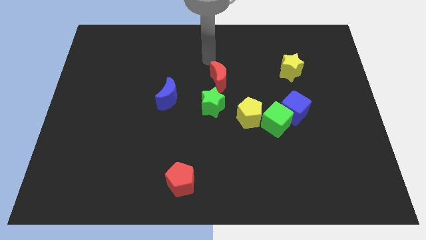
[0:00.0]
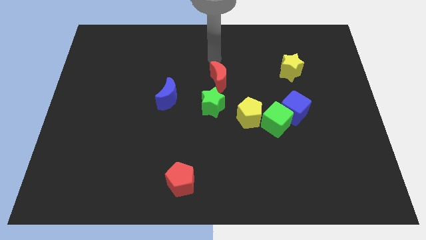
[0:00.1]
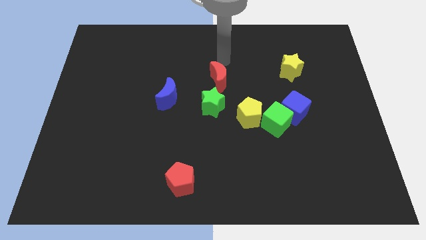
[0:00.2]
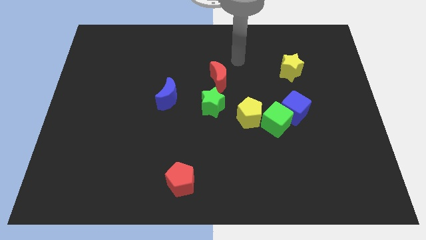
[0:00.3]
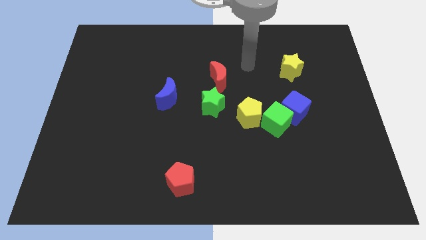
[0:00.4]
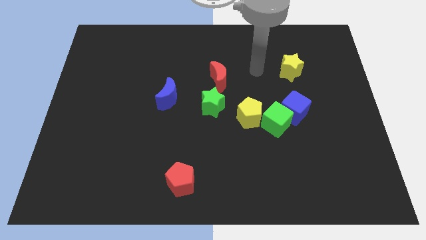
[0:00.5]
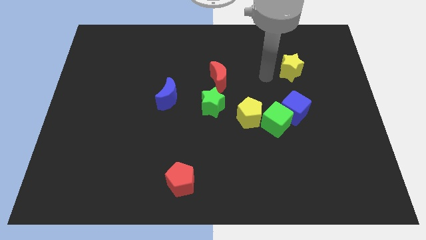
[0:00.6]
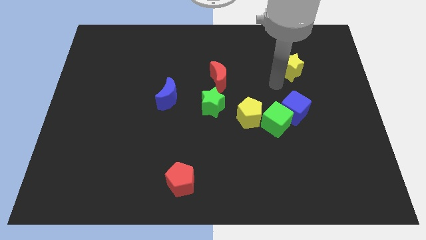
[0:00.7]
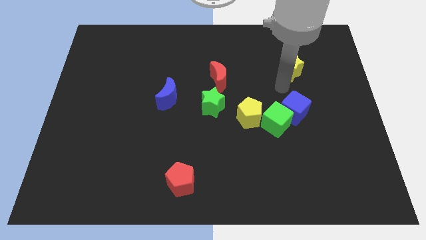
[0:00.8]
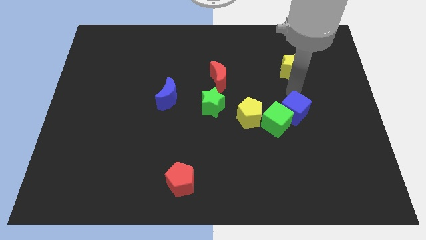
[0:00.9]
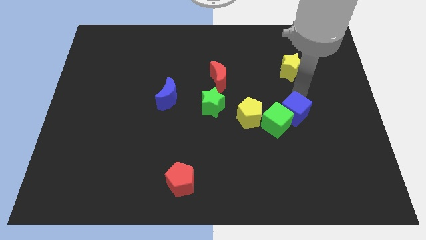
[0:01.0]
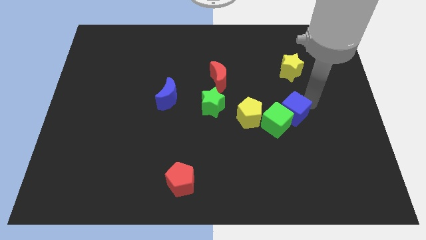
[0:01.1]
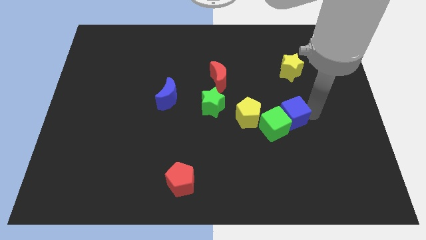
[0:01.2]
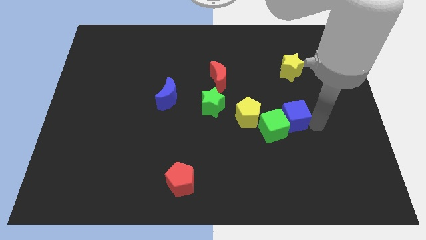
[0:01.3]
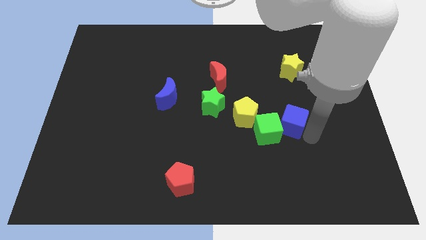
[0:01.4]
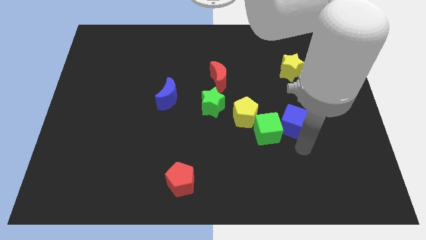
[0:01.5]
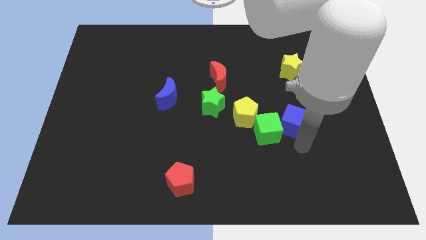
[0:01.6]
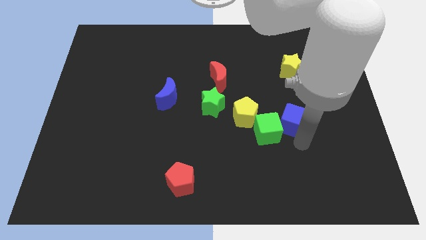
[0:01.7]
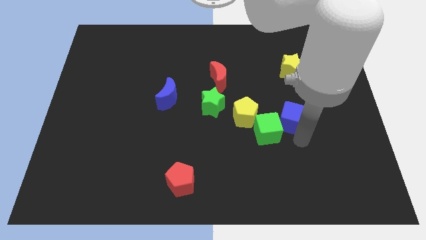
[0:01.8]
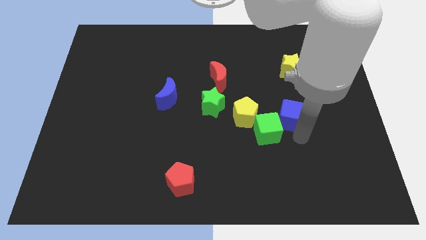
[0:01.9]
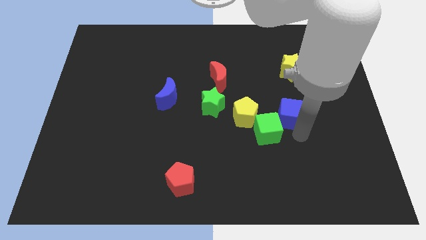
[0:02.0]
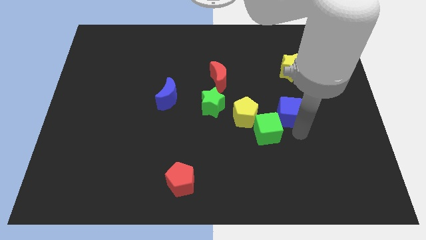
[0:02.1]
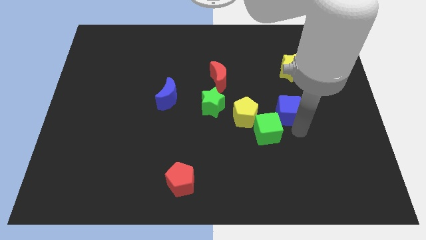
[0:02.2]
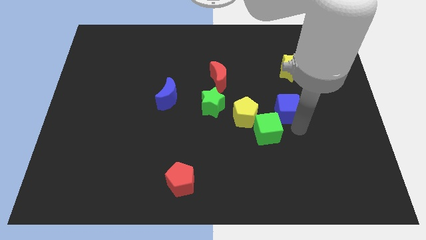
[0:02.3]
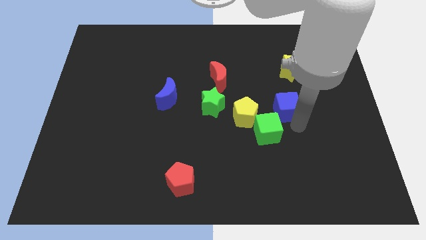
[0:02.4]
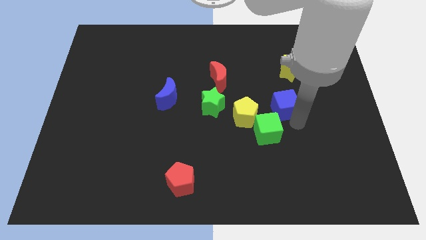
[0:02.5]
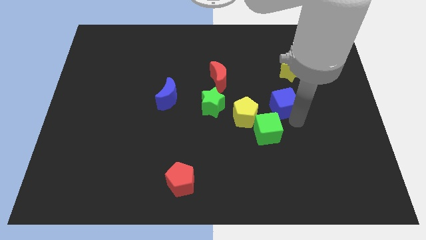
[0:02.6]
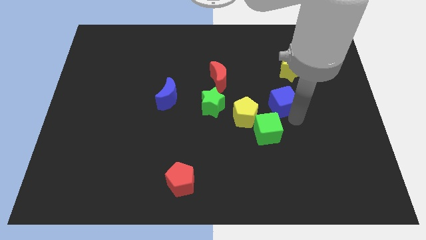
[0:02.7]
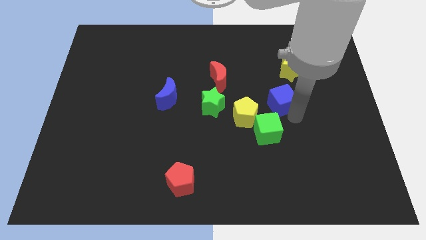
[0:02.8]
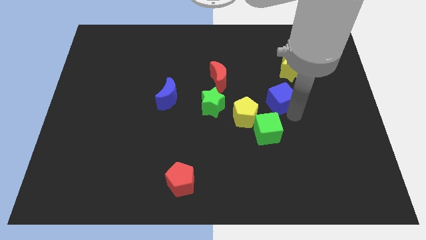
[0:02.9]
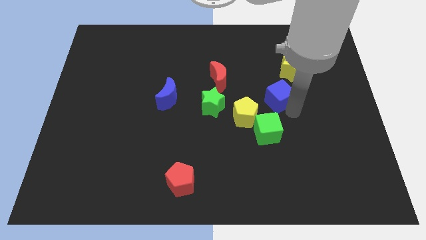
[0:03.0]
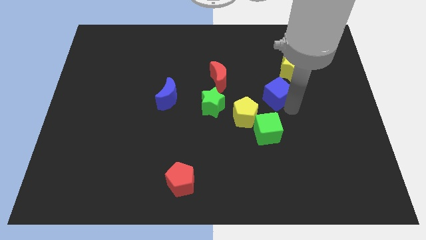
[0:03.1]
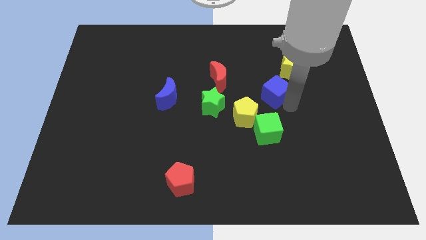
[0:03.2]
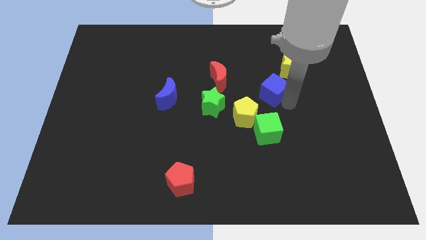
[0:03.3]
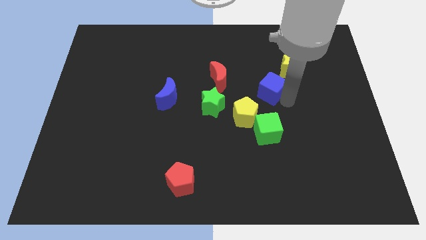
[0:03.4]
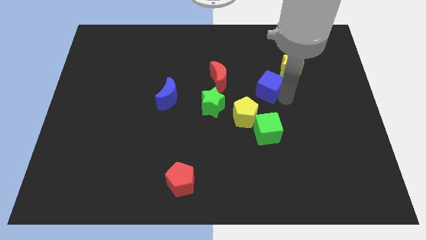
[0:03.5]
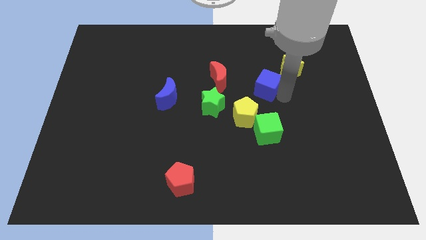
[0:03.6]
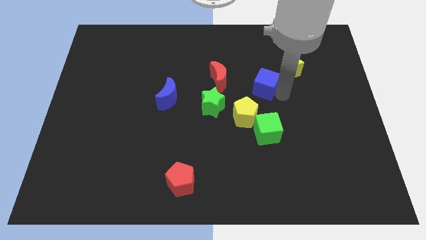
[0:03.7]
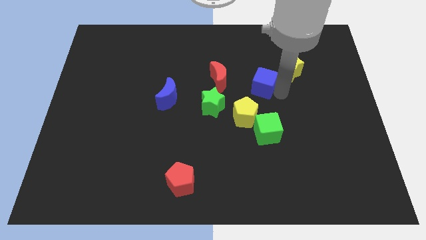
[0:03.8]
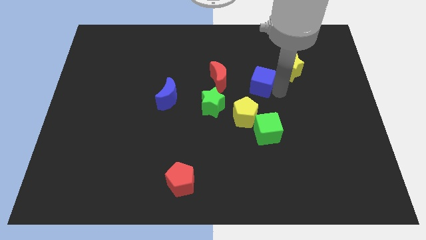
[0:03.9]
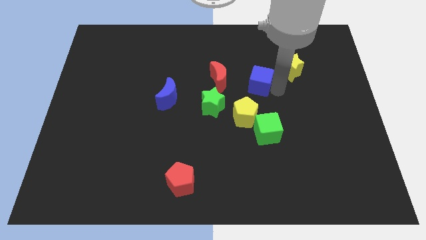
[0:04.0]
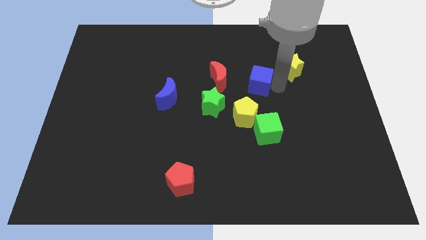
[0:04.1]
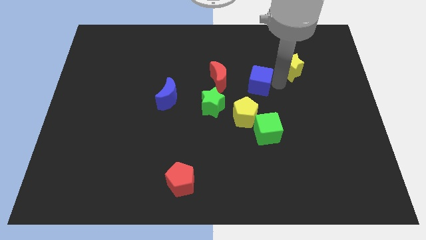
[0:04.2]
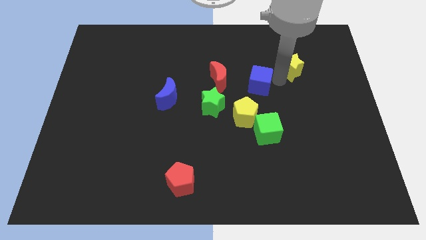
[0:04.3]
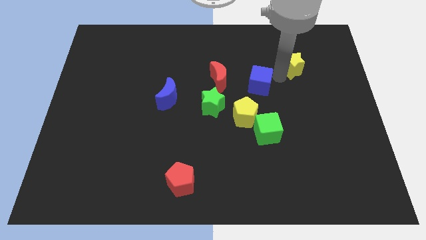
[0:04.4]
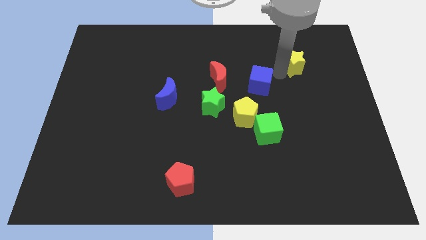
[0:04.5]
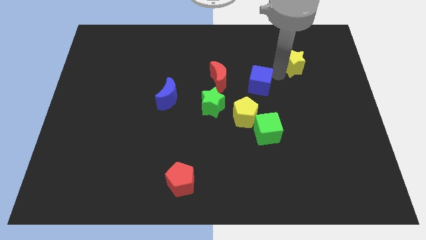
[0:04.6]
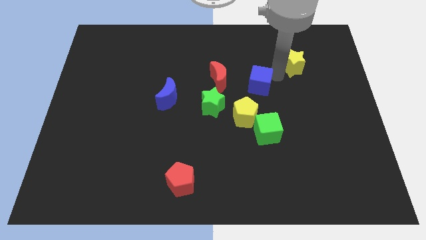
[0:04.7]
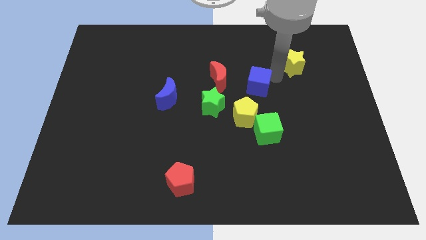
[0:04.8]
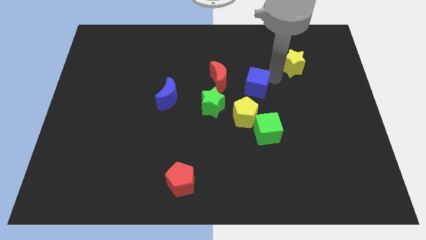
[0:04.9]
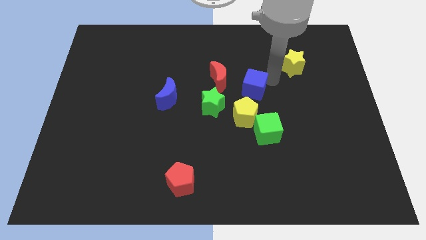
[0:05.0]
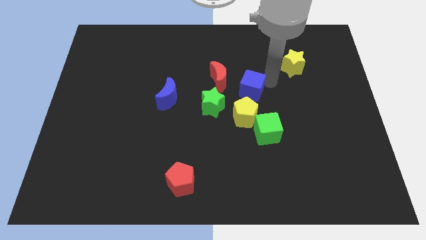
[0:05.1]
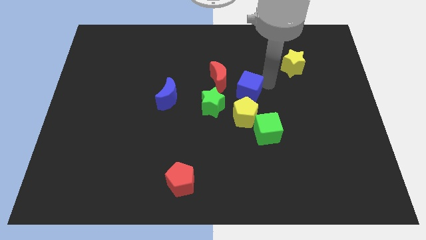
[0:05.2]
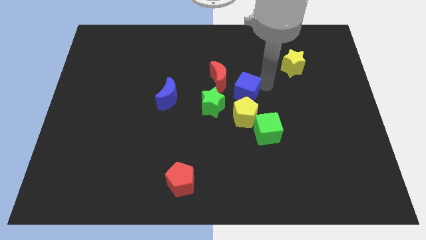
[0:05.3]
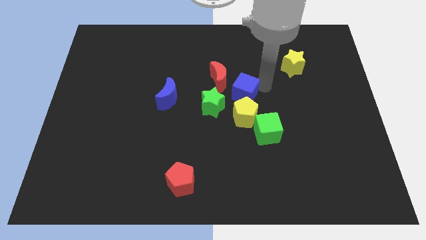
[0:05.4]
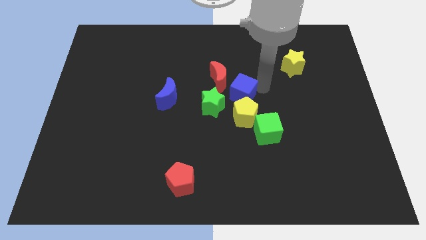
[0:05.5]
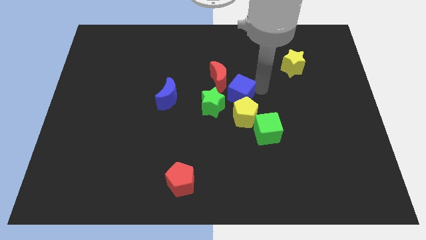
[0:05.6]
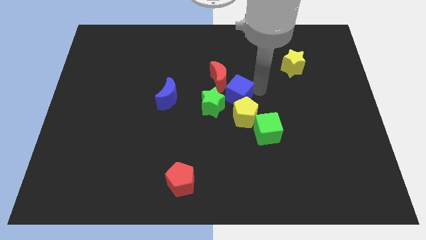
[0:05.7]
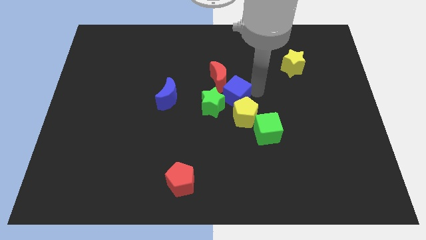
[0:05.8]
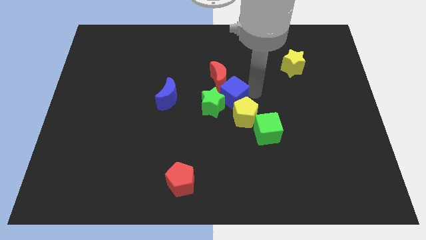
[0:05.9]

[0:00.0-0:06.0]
put the blue cube close to the green star

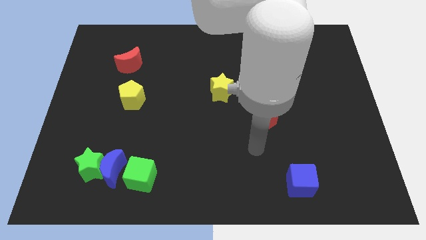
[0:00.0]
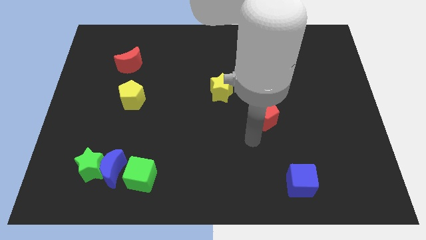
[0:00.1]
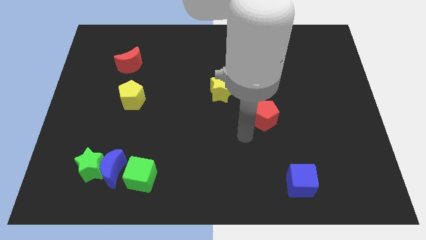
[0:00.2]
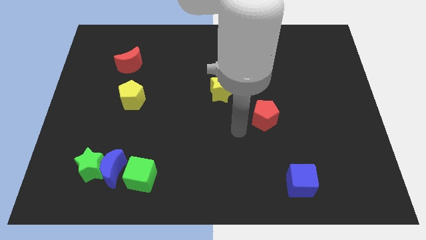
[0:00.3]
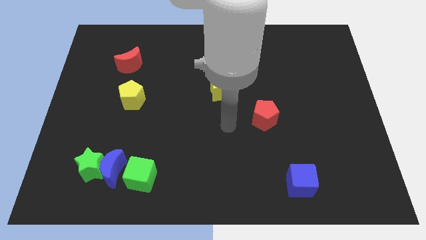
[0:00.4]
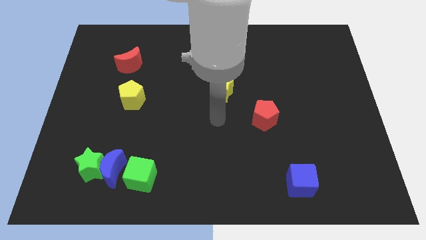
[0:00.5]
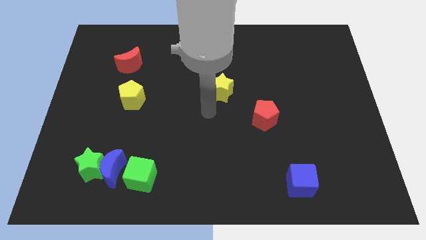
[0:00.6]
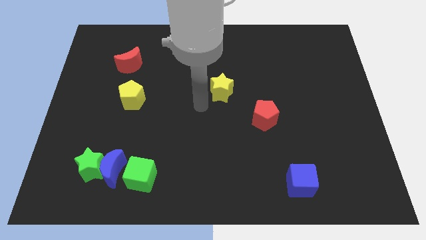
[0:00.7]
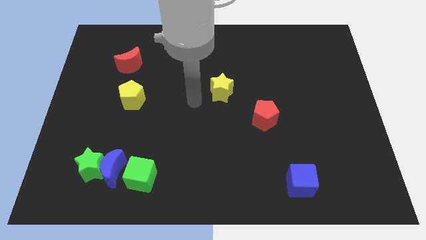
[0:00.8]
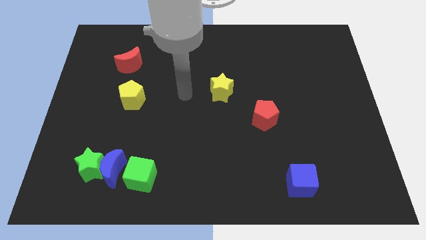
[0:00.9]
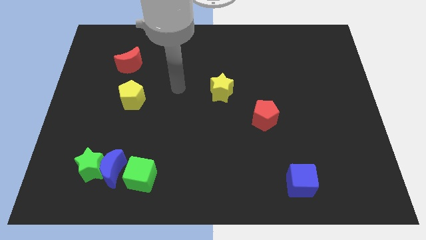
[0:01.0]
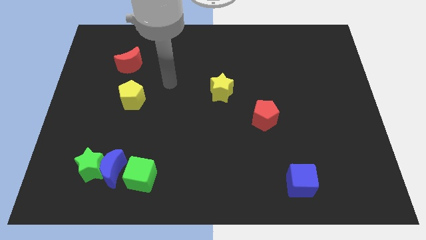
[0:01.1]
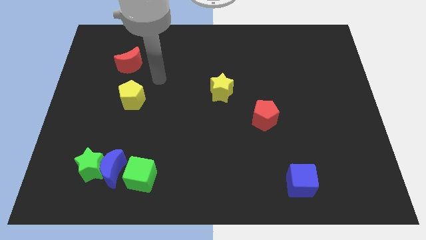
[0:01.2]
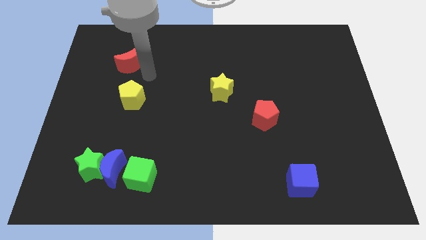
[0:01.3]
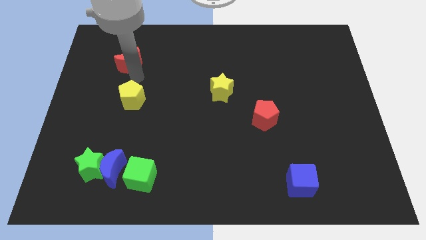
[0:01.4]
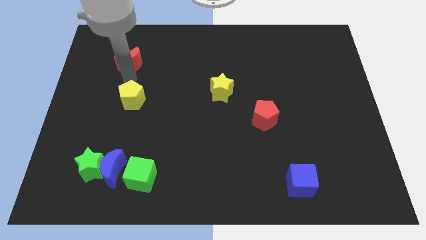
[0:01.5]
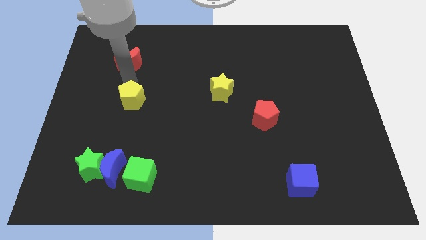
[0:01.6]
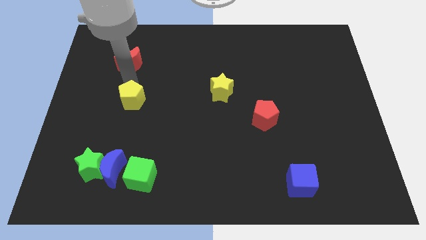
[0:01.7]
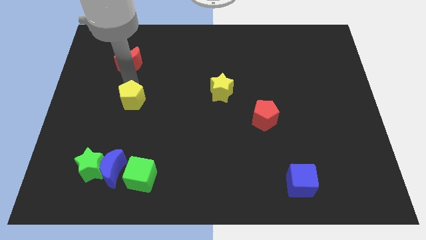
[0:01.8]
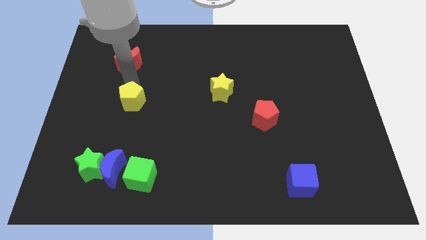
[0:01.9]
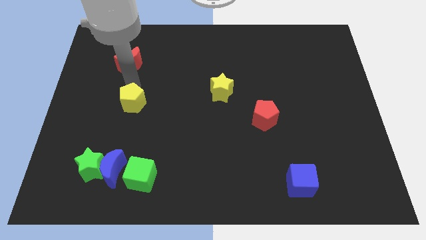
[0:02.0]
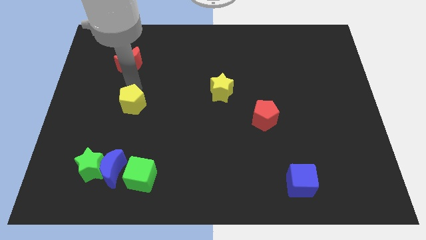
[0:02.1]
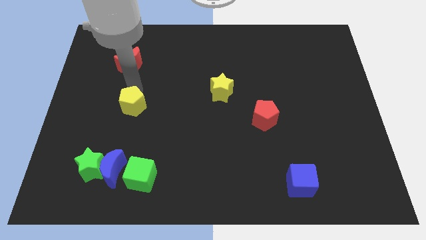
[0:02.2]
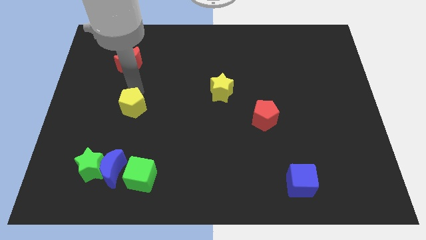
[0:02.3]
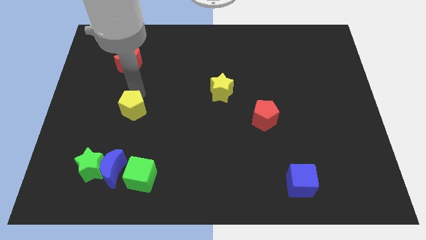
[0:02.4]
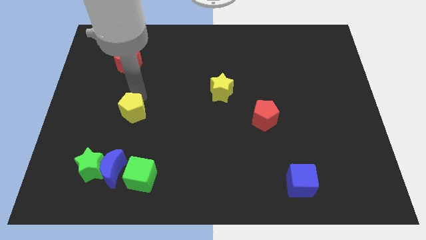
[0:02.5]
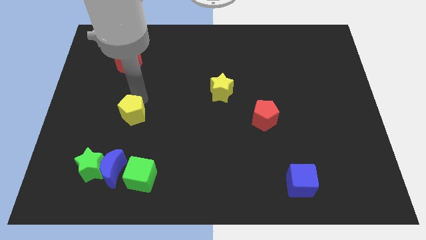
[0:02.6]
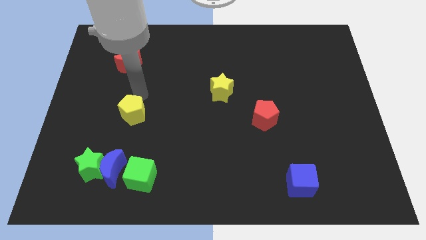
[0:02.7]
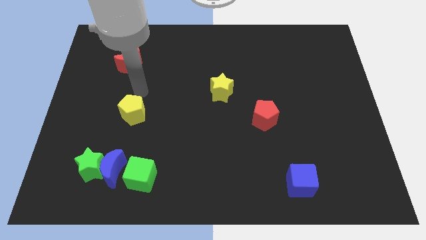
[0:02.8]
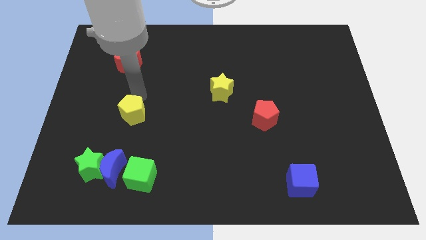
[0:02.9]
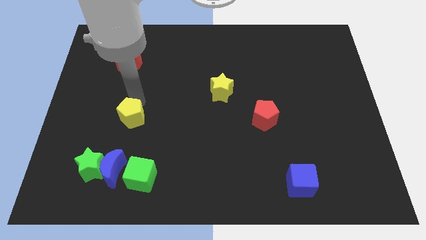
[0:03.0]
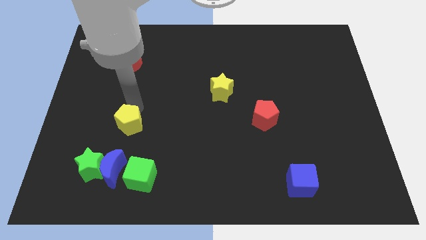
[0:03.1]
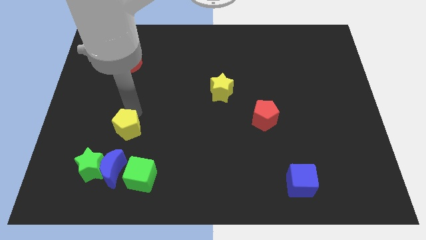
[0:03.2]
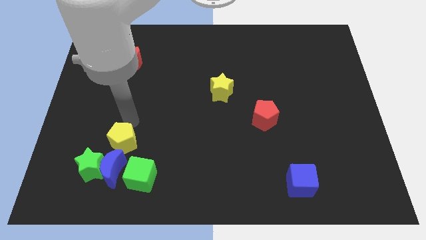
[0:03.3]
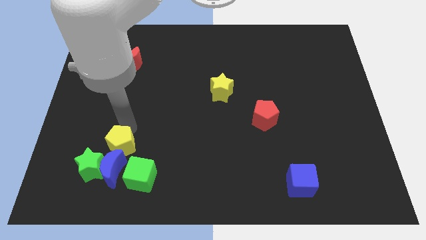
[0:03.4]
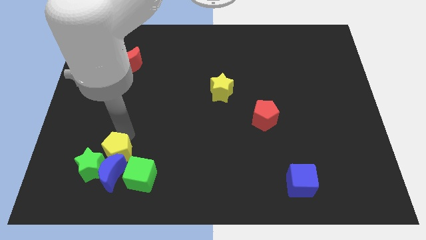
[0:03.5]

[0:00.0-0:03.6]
slide the yellow pentagon close to the blue moon
